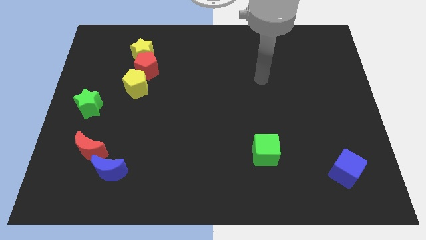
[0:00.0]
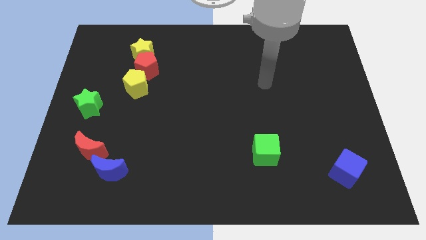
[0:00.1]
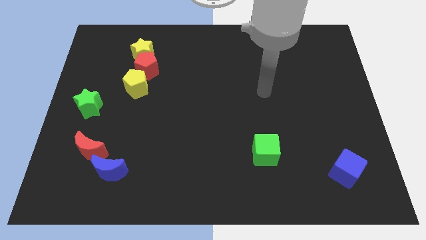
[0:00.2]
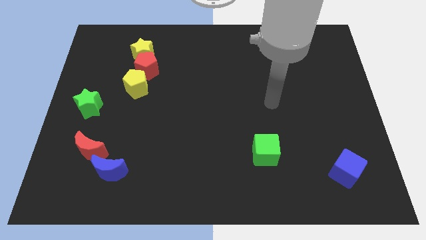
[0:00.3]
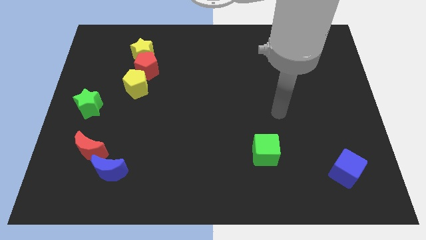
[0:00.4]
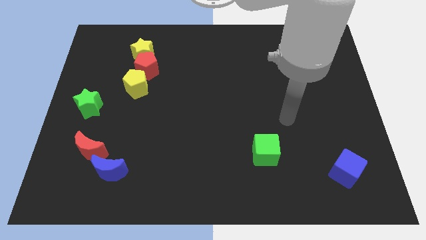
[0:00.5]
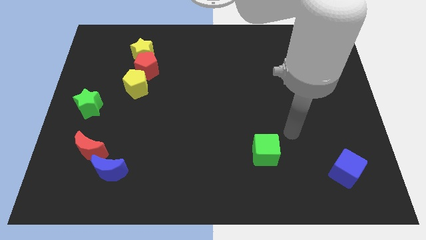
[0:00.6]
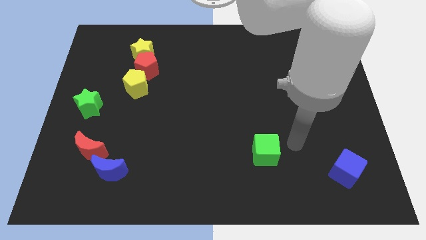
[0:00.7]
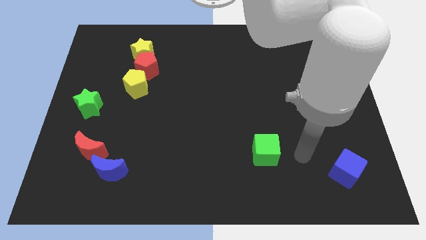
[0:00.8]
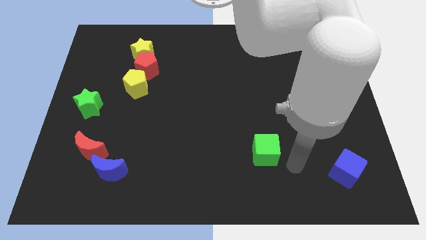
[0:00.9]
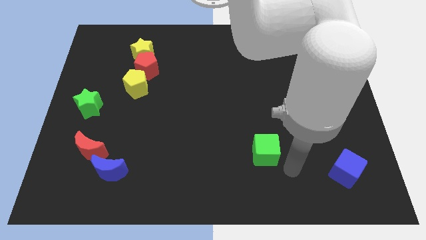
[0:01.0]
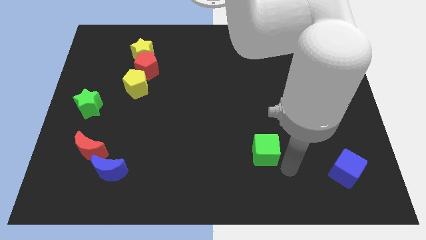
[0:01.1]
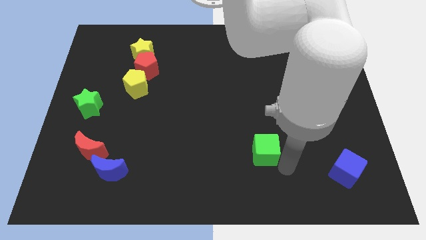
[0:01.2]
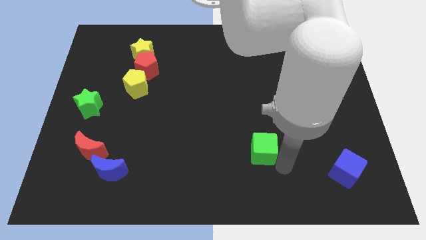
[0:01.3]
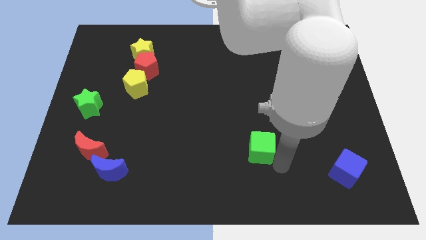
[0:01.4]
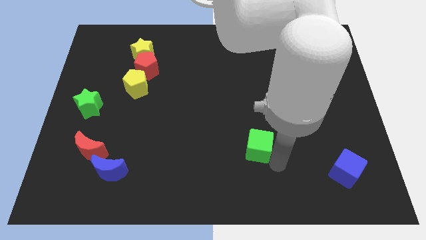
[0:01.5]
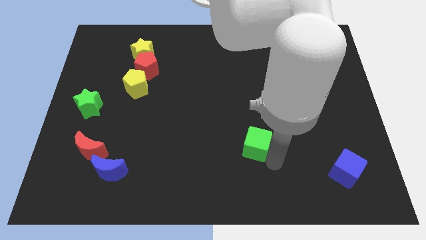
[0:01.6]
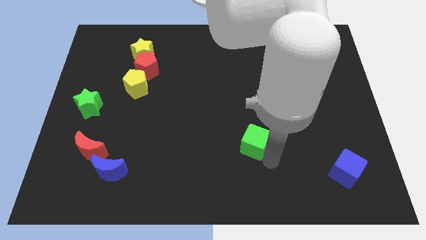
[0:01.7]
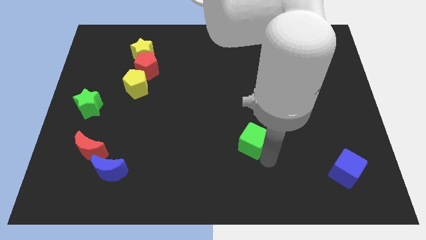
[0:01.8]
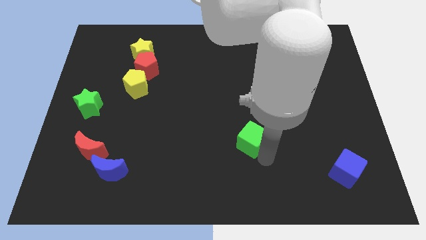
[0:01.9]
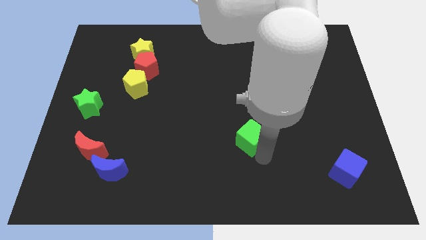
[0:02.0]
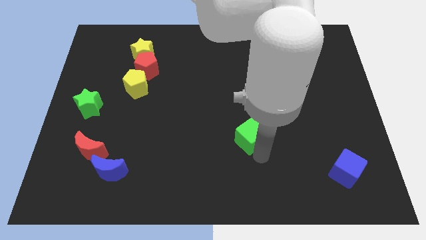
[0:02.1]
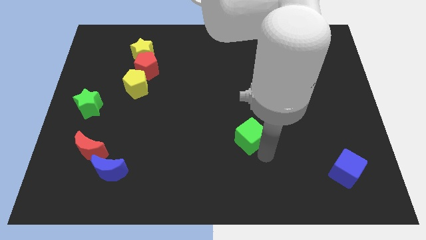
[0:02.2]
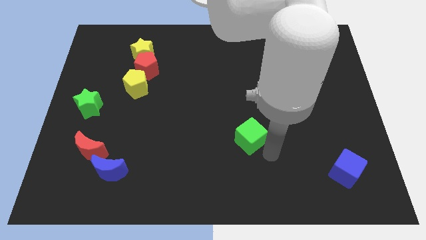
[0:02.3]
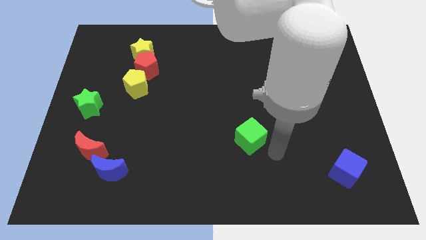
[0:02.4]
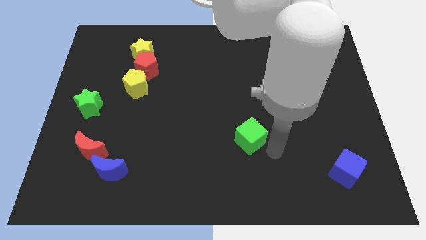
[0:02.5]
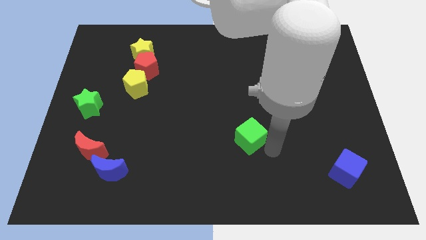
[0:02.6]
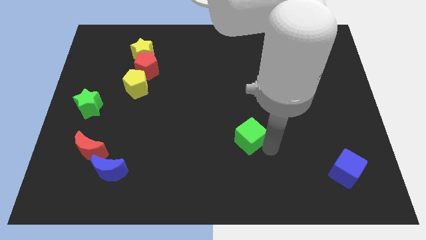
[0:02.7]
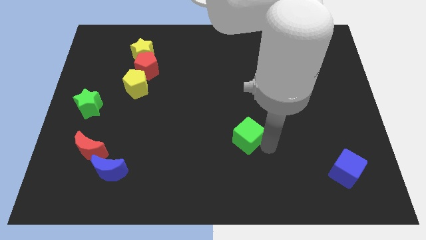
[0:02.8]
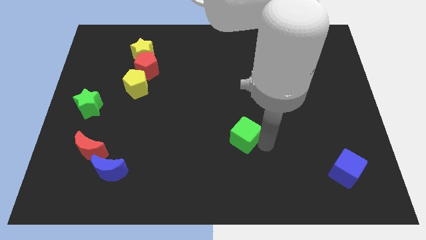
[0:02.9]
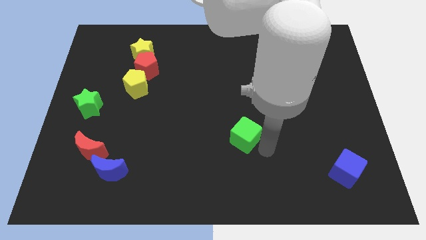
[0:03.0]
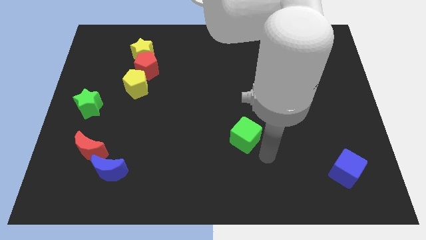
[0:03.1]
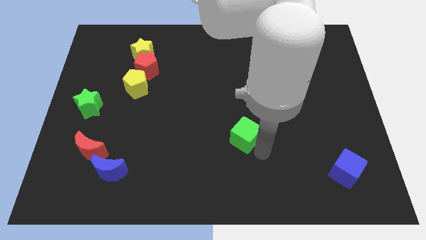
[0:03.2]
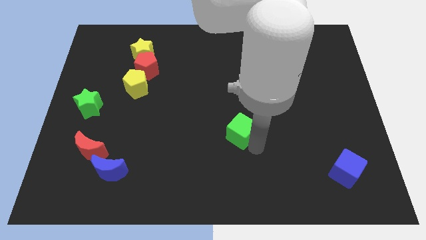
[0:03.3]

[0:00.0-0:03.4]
push the green cube upwards and to the left diagonally somewhat

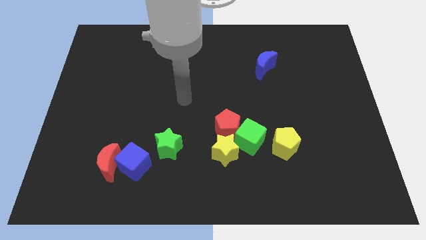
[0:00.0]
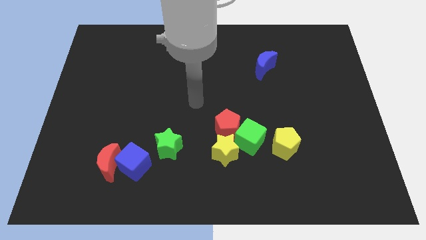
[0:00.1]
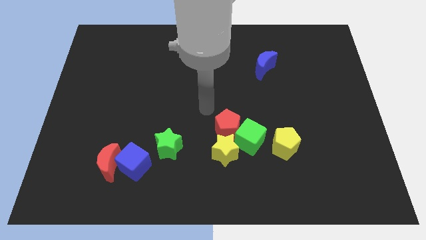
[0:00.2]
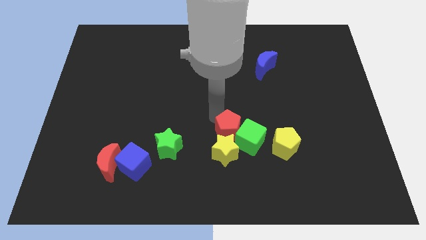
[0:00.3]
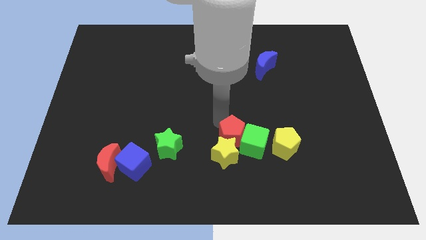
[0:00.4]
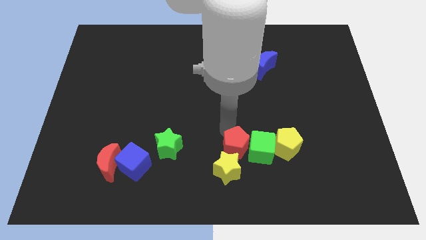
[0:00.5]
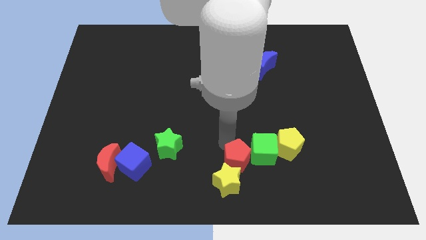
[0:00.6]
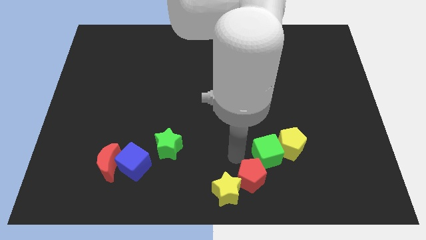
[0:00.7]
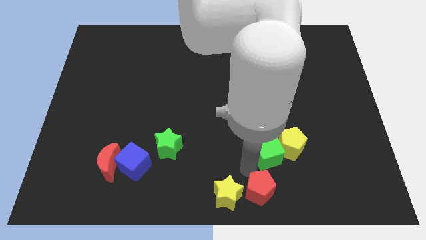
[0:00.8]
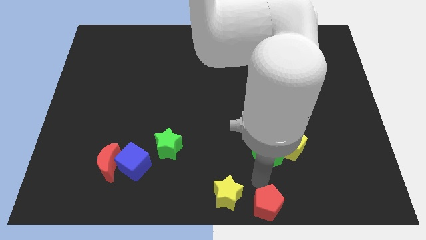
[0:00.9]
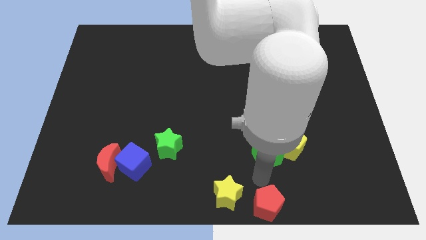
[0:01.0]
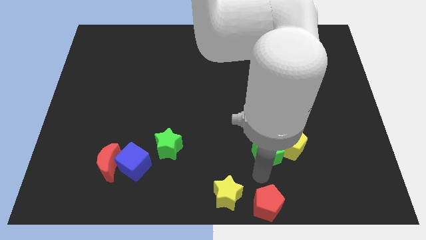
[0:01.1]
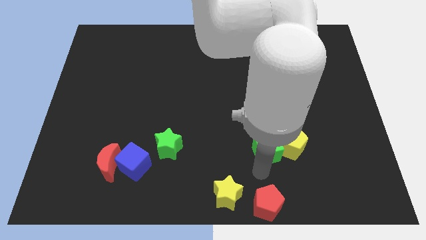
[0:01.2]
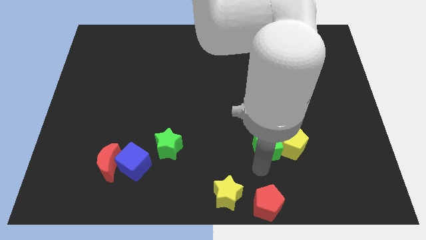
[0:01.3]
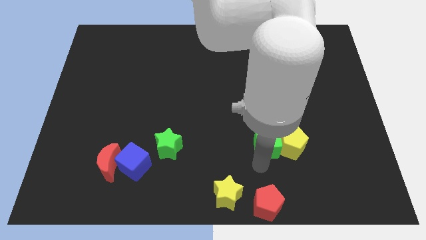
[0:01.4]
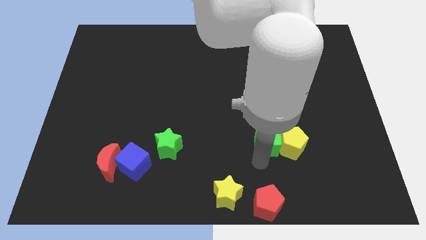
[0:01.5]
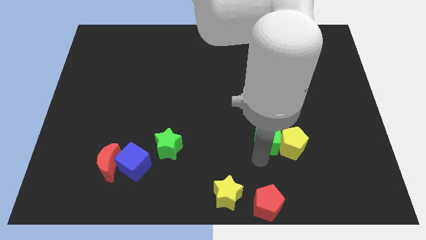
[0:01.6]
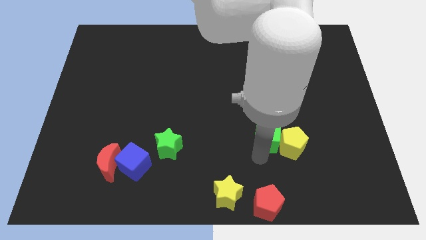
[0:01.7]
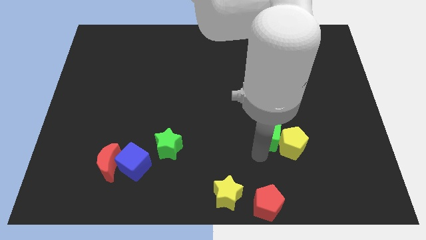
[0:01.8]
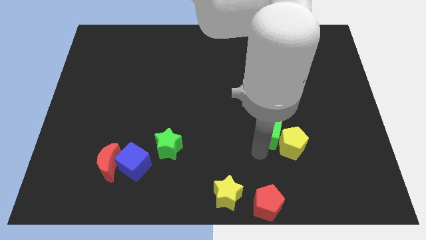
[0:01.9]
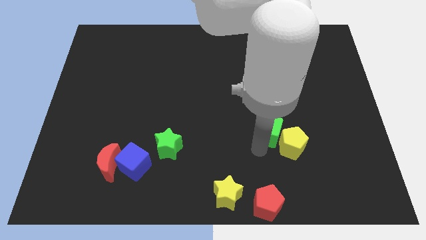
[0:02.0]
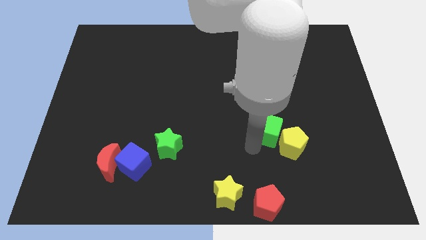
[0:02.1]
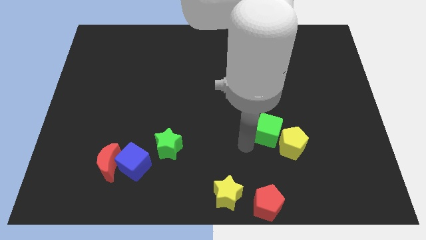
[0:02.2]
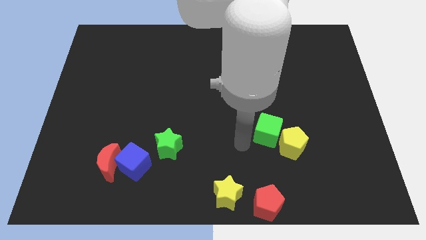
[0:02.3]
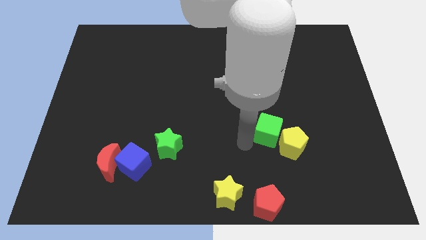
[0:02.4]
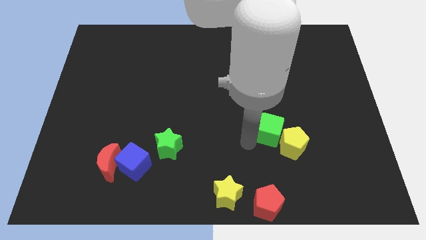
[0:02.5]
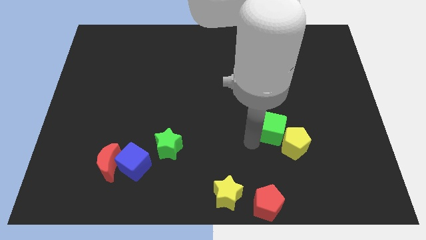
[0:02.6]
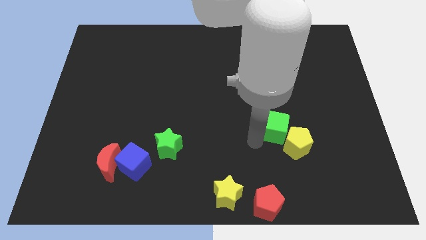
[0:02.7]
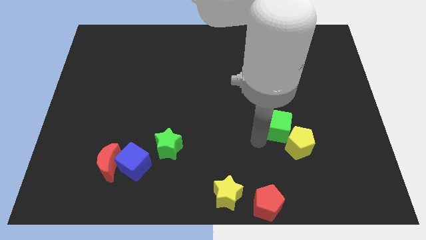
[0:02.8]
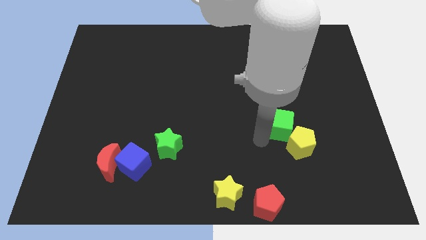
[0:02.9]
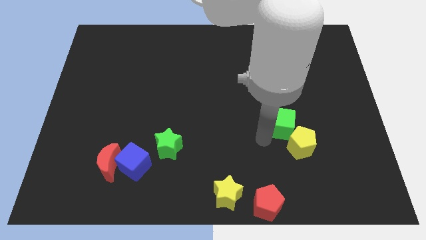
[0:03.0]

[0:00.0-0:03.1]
push the green cube a little bit right

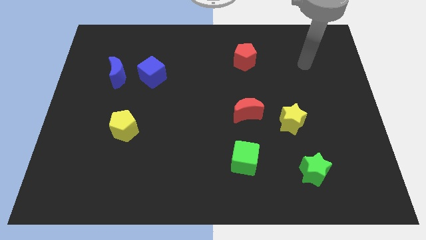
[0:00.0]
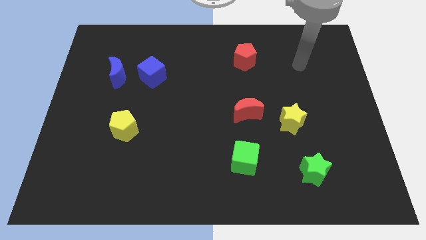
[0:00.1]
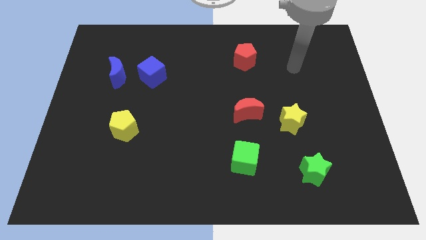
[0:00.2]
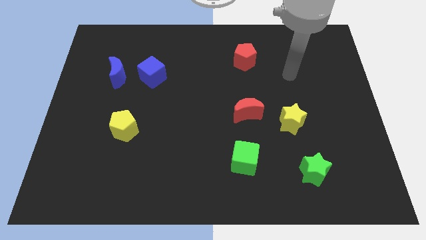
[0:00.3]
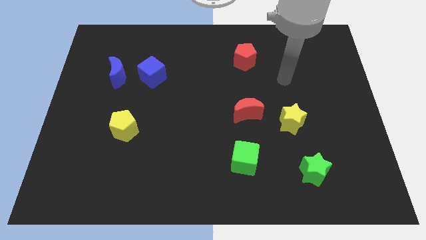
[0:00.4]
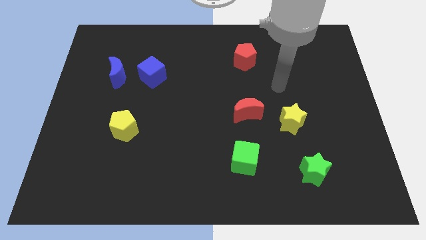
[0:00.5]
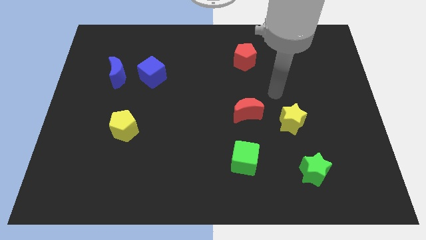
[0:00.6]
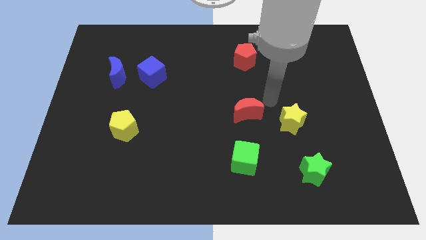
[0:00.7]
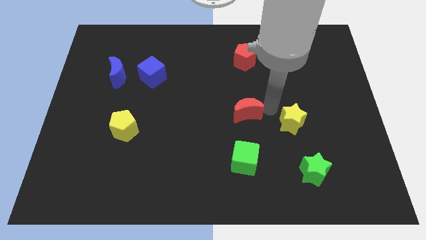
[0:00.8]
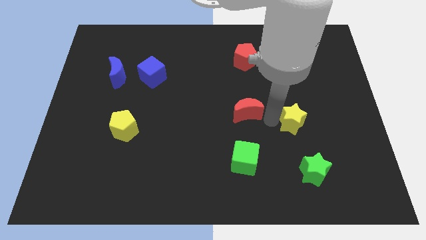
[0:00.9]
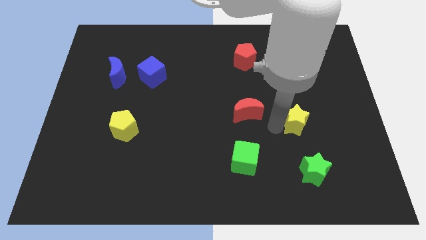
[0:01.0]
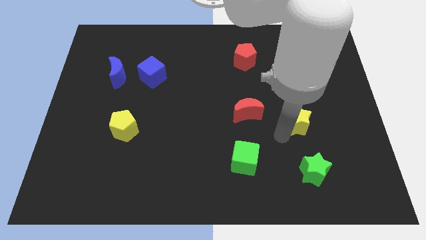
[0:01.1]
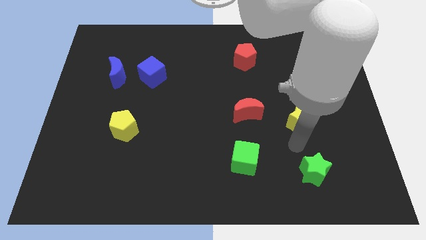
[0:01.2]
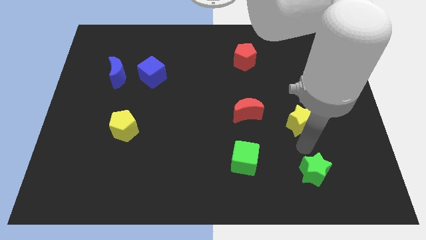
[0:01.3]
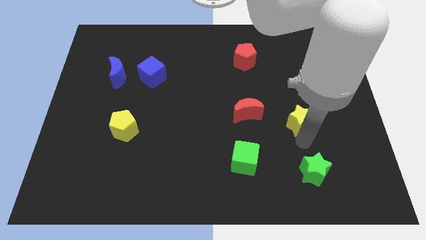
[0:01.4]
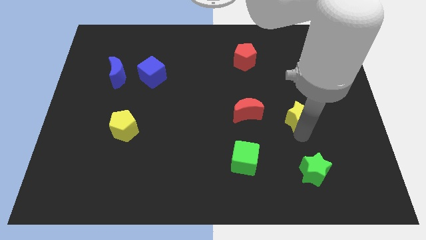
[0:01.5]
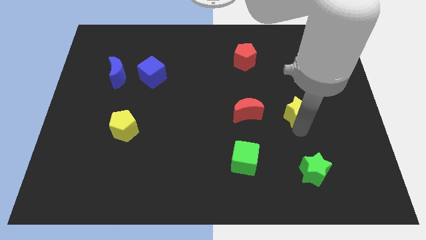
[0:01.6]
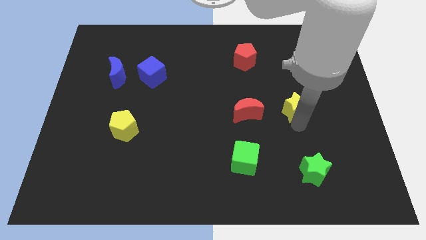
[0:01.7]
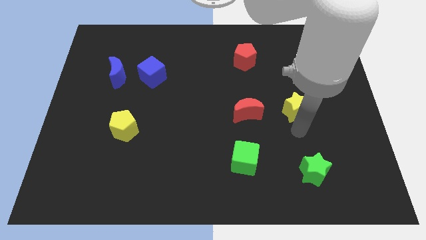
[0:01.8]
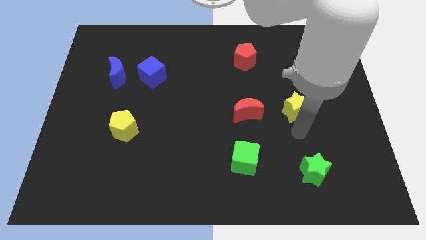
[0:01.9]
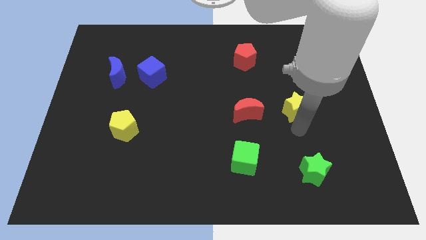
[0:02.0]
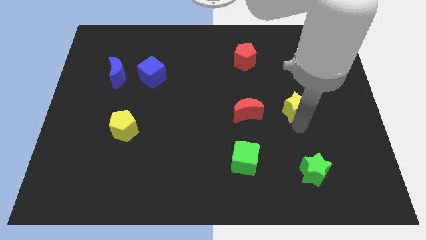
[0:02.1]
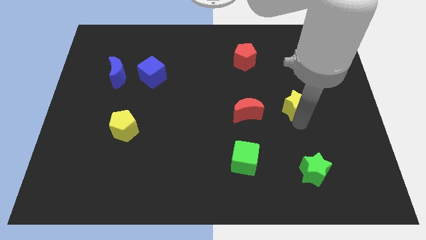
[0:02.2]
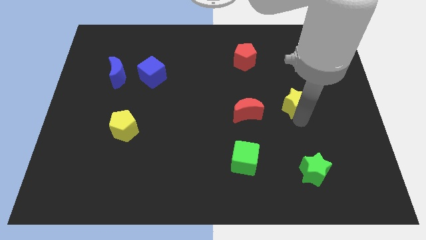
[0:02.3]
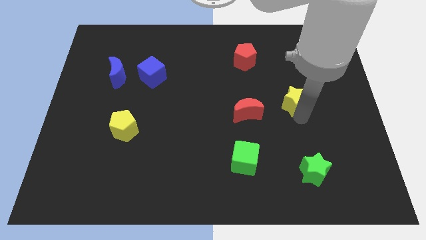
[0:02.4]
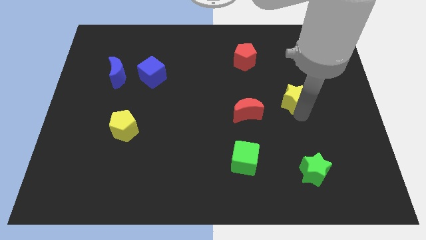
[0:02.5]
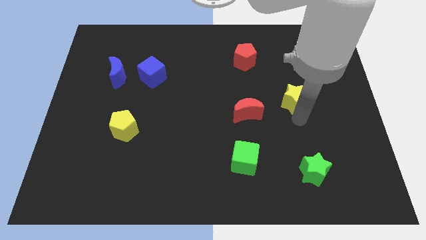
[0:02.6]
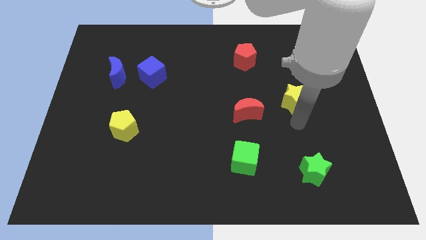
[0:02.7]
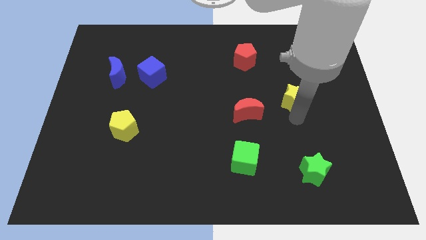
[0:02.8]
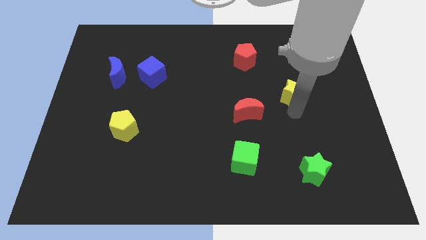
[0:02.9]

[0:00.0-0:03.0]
push the yellow star up a little bit
